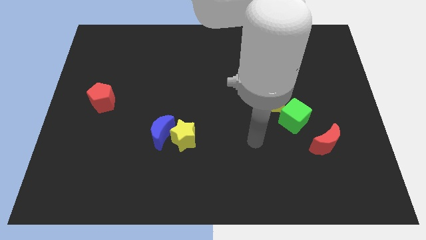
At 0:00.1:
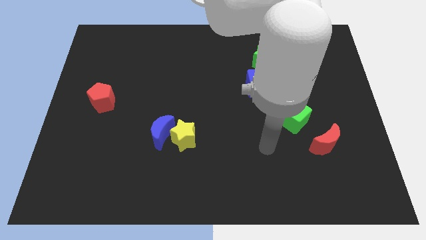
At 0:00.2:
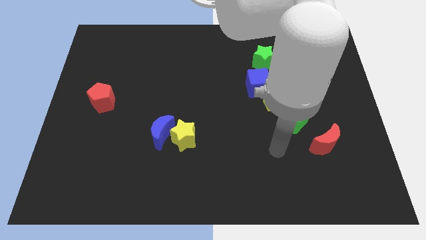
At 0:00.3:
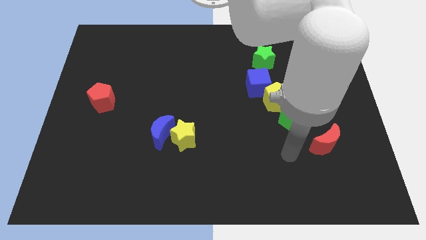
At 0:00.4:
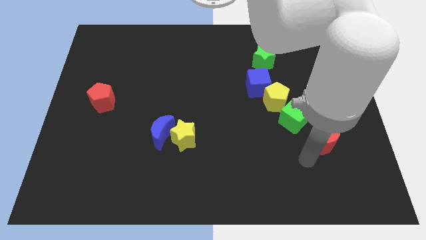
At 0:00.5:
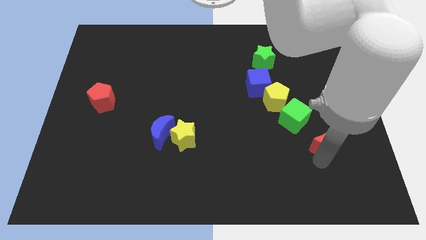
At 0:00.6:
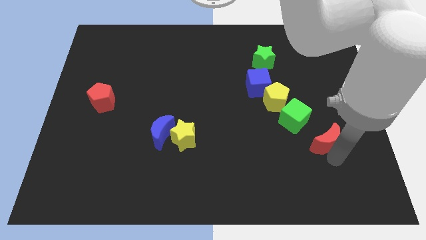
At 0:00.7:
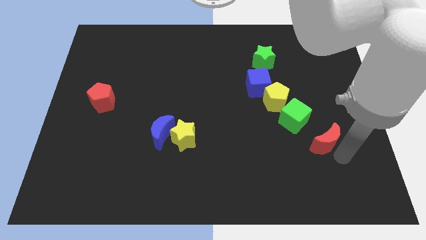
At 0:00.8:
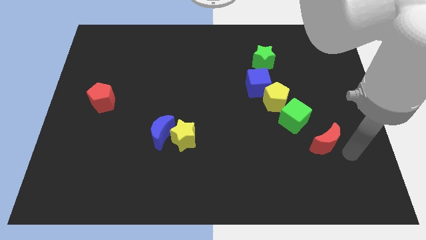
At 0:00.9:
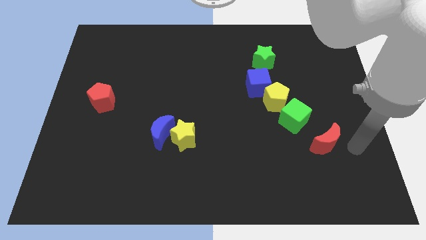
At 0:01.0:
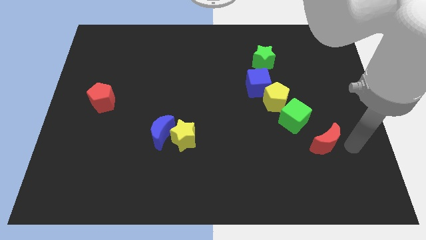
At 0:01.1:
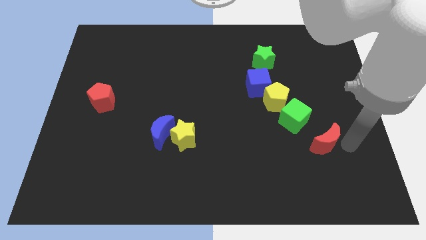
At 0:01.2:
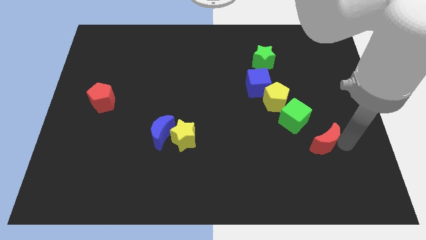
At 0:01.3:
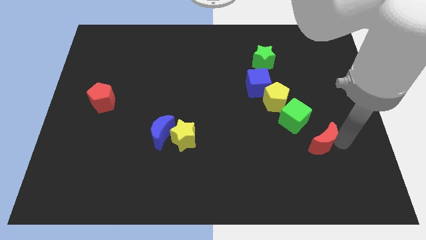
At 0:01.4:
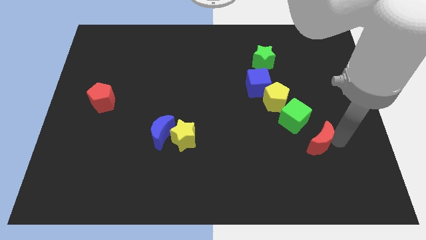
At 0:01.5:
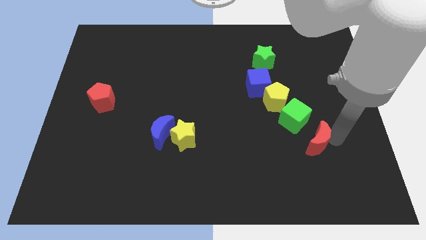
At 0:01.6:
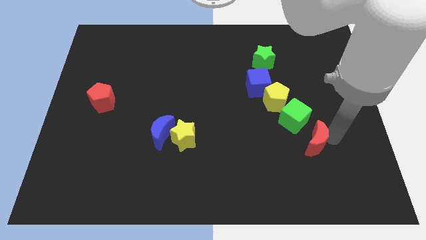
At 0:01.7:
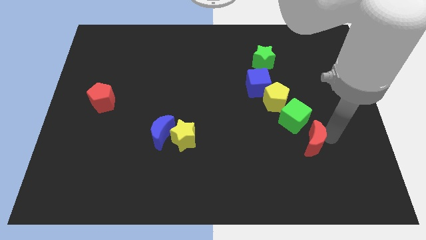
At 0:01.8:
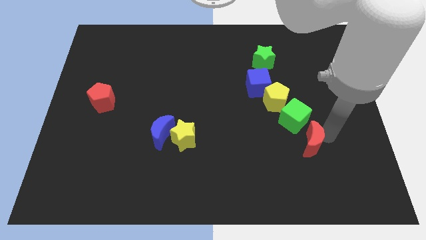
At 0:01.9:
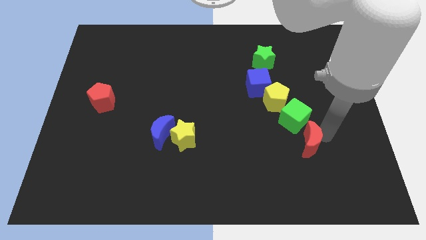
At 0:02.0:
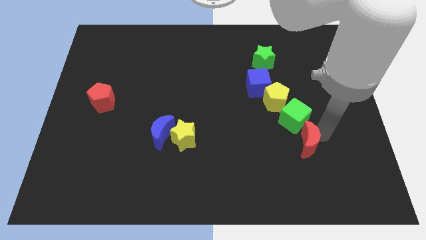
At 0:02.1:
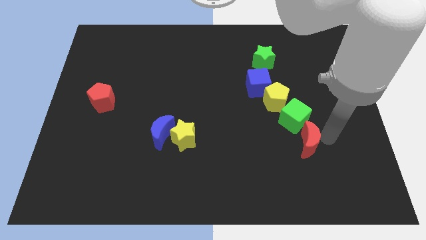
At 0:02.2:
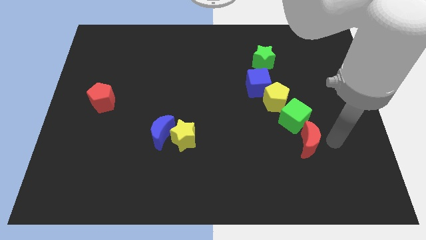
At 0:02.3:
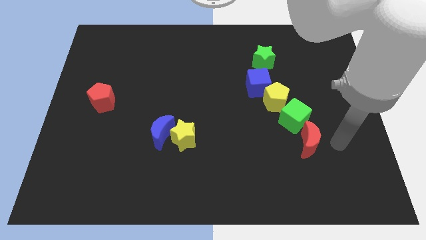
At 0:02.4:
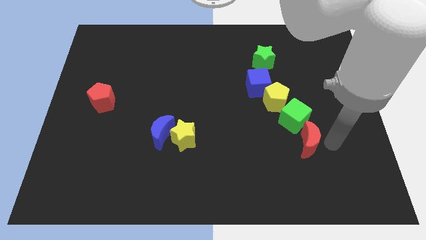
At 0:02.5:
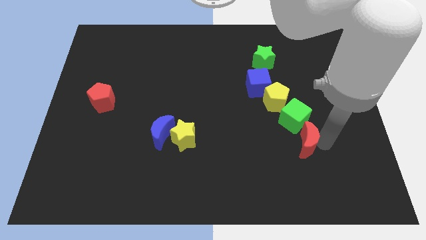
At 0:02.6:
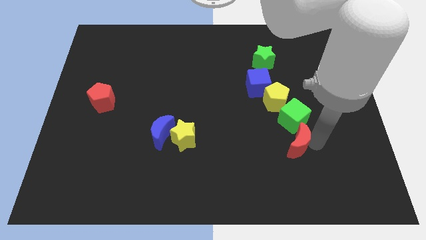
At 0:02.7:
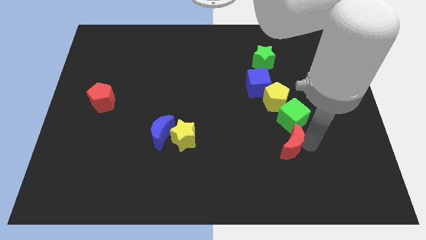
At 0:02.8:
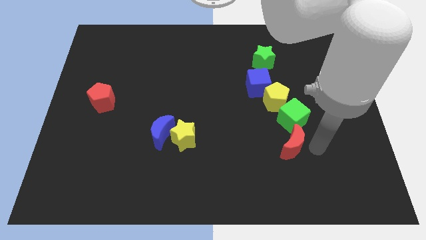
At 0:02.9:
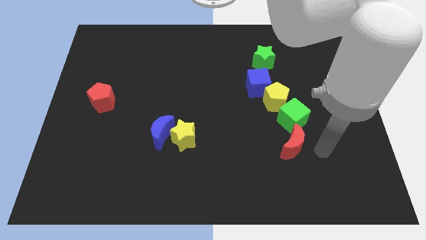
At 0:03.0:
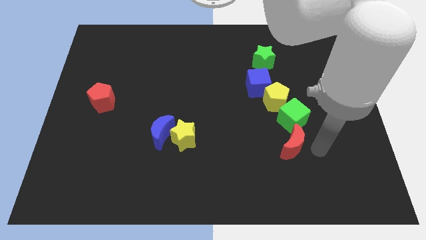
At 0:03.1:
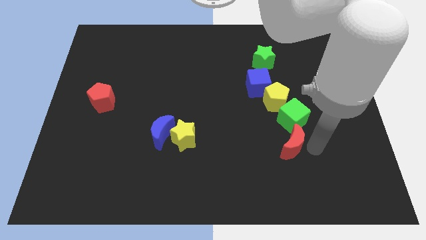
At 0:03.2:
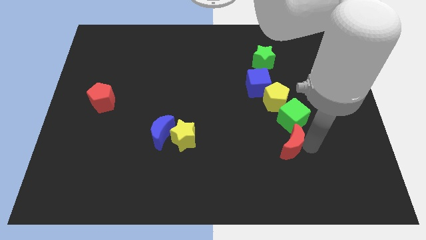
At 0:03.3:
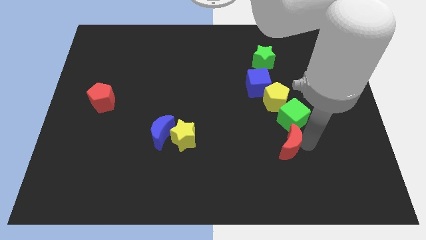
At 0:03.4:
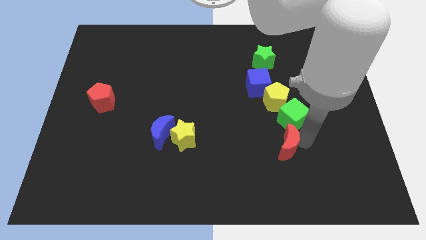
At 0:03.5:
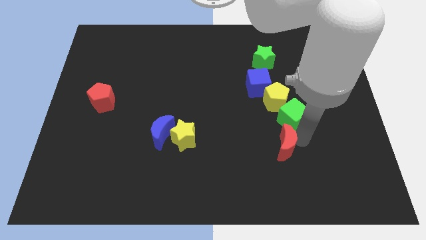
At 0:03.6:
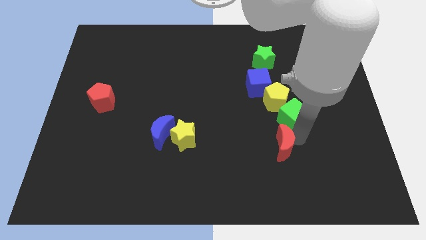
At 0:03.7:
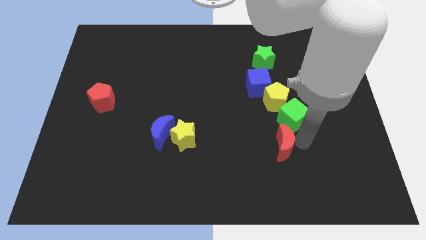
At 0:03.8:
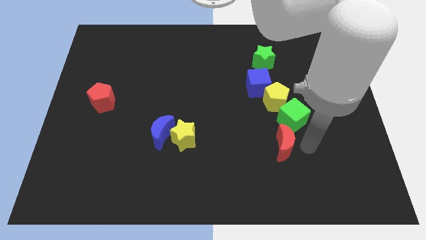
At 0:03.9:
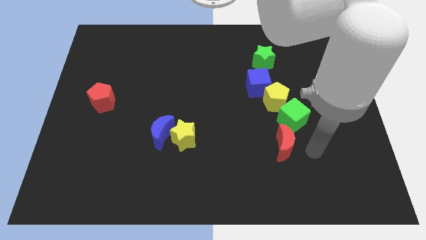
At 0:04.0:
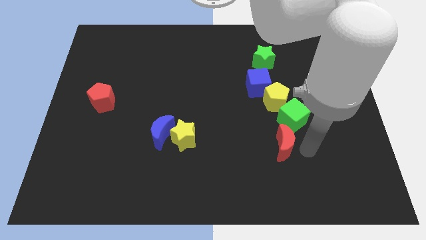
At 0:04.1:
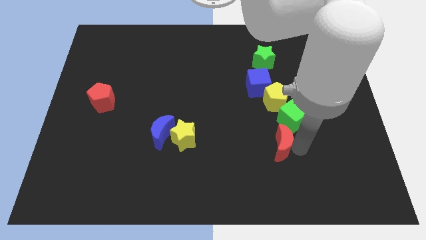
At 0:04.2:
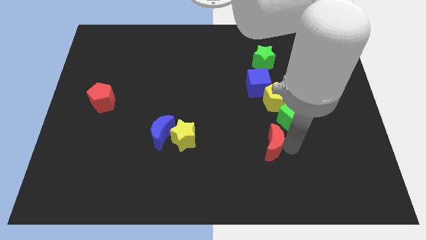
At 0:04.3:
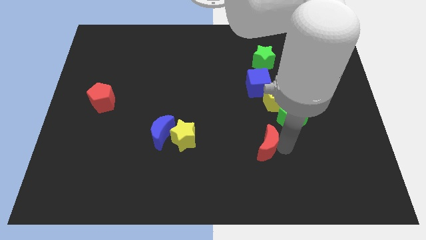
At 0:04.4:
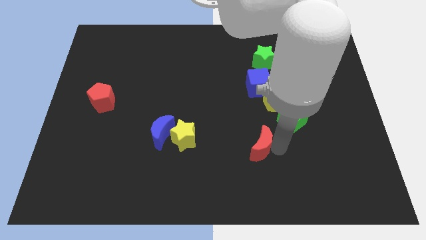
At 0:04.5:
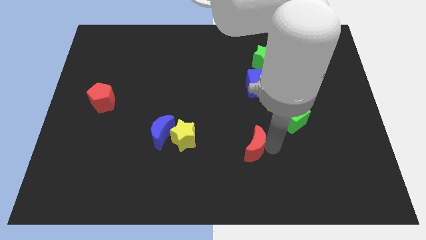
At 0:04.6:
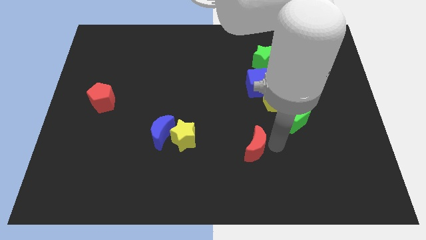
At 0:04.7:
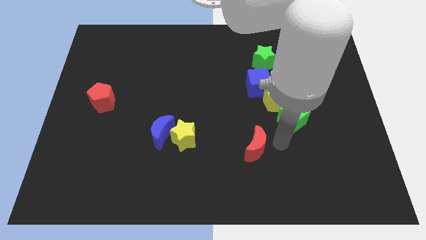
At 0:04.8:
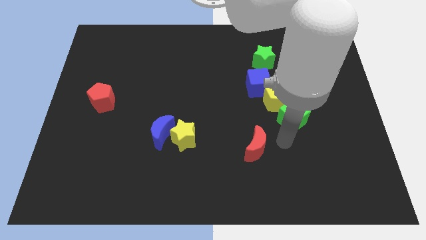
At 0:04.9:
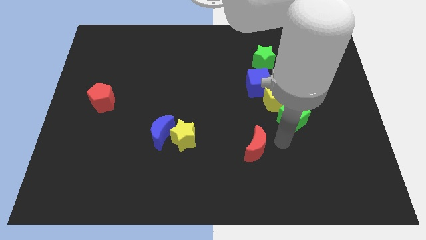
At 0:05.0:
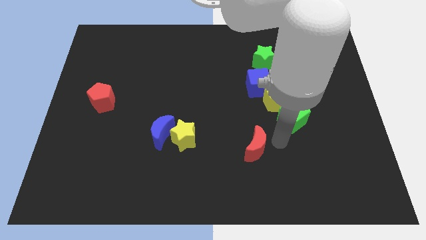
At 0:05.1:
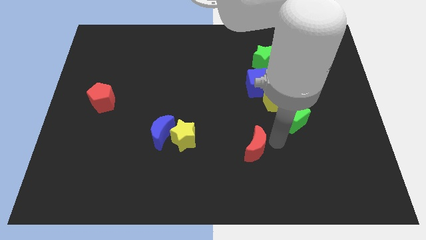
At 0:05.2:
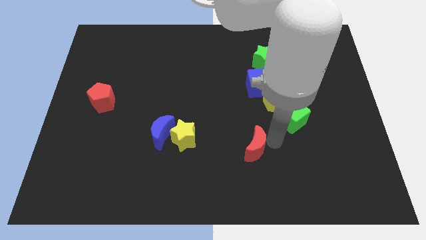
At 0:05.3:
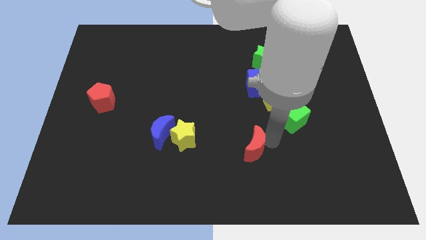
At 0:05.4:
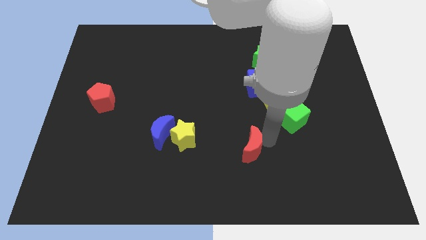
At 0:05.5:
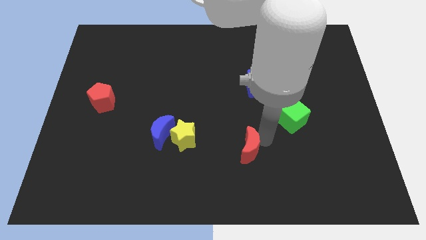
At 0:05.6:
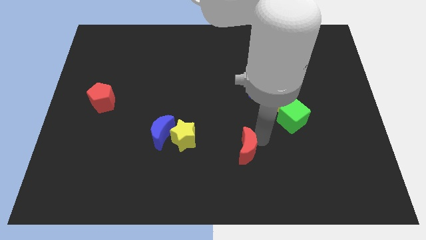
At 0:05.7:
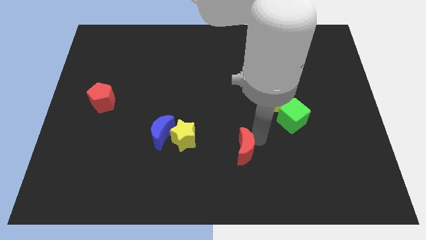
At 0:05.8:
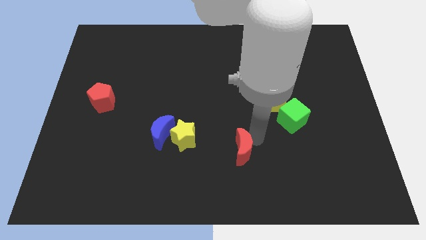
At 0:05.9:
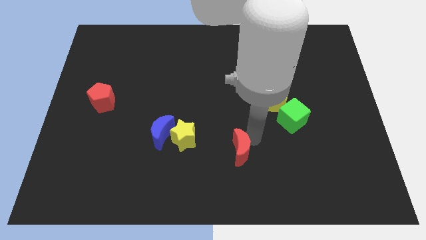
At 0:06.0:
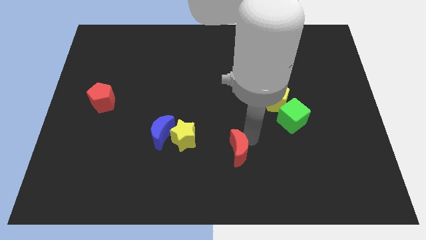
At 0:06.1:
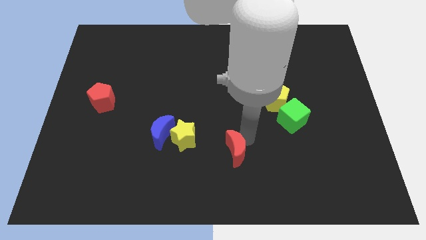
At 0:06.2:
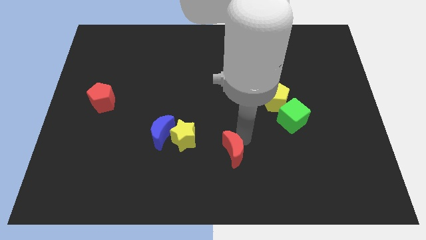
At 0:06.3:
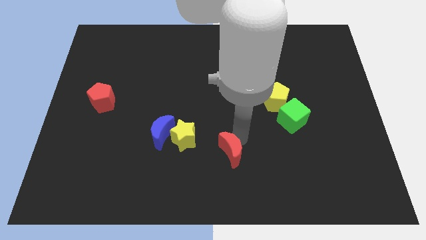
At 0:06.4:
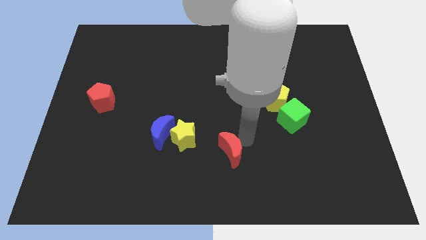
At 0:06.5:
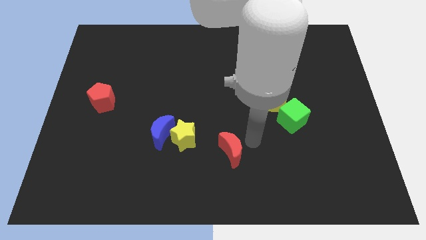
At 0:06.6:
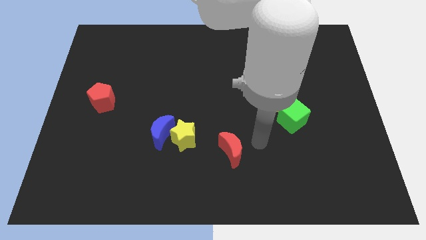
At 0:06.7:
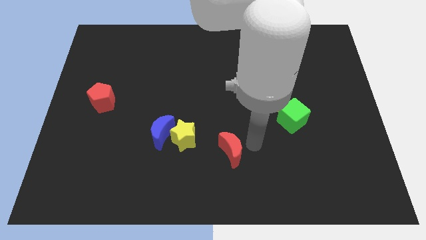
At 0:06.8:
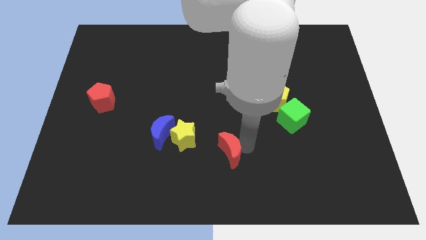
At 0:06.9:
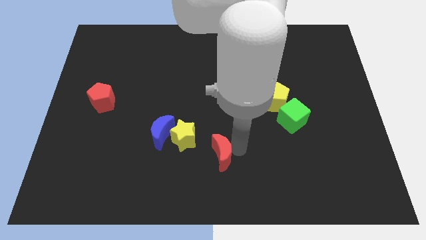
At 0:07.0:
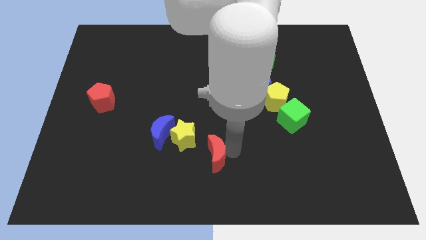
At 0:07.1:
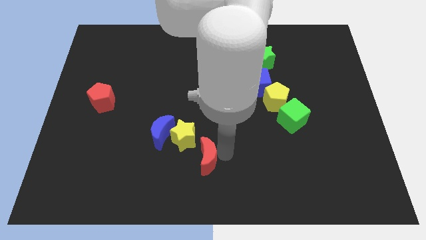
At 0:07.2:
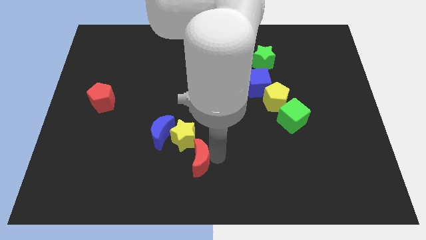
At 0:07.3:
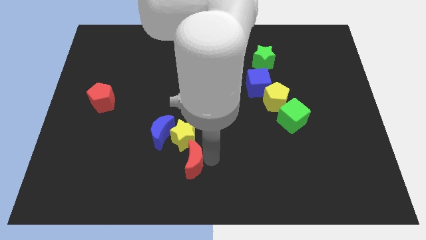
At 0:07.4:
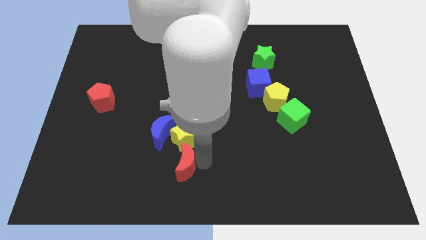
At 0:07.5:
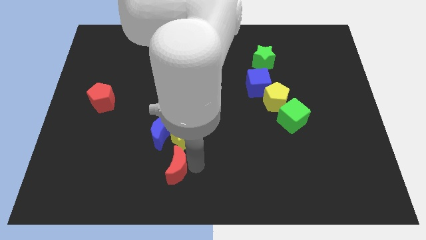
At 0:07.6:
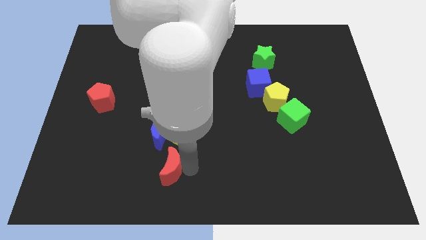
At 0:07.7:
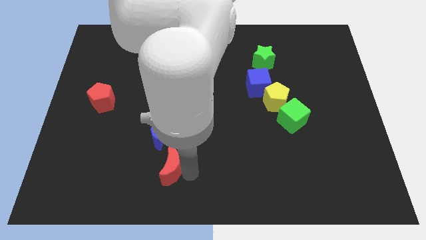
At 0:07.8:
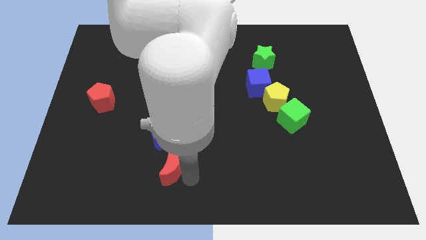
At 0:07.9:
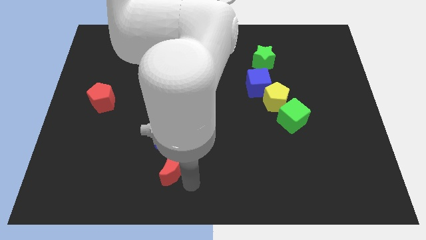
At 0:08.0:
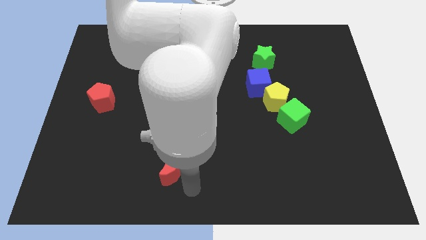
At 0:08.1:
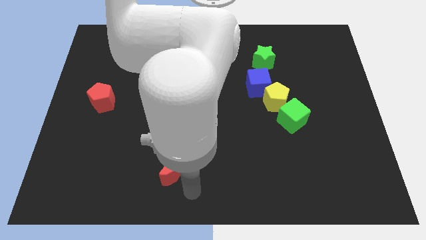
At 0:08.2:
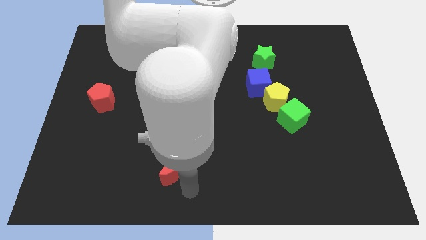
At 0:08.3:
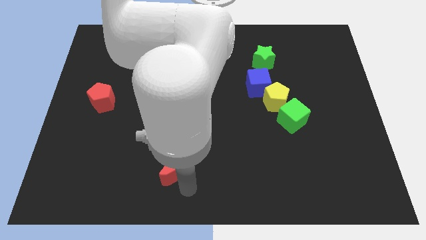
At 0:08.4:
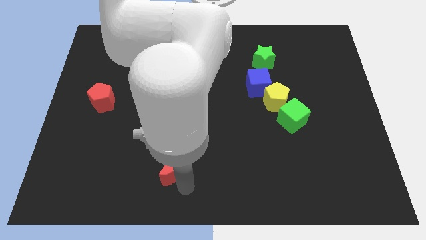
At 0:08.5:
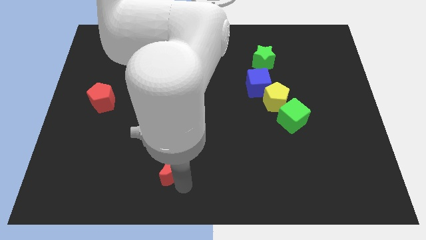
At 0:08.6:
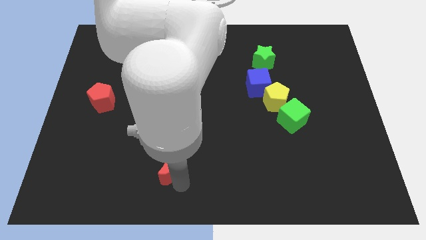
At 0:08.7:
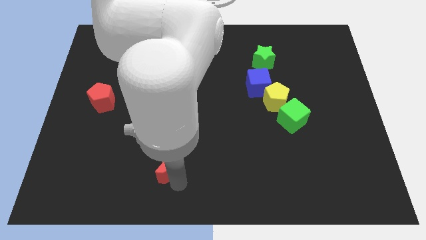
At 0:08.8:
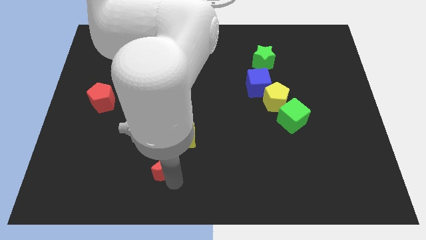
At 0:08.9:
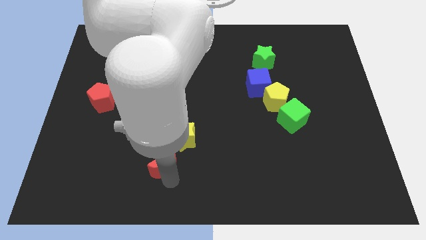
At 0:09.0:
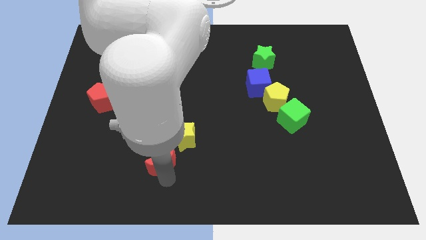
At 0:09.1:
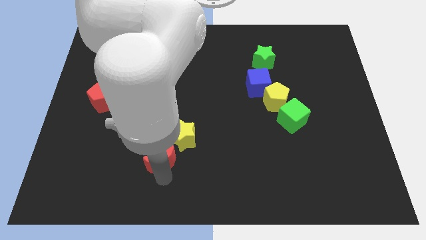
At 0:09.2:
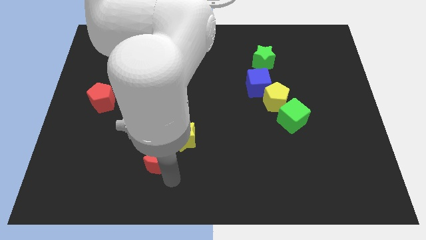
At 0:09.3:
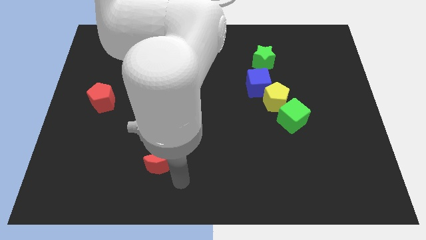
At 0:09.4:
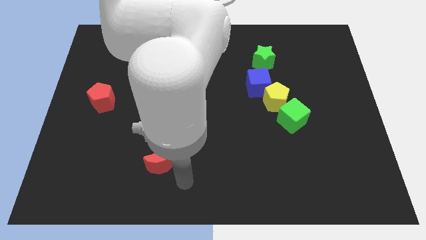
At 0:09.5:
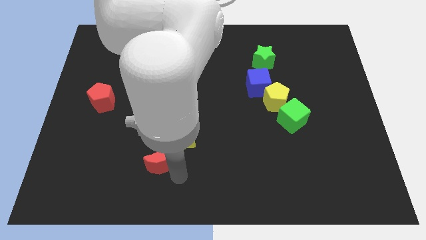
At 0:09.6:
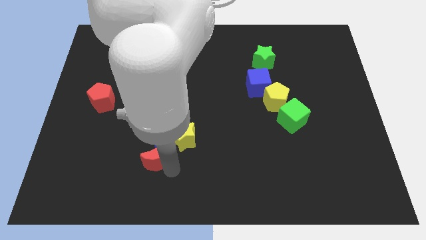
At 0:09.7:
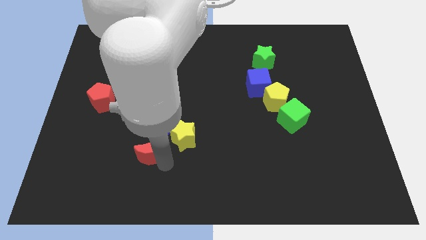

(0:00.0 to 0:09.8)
move the red moon just left of the yellow star
